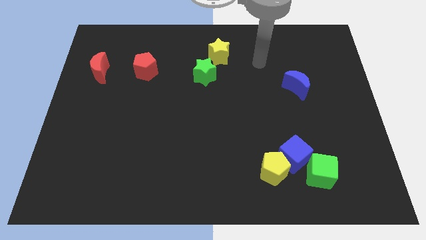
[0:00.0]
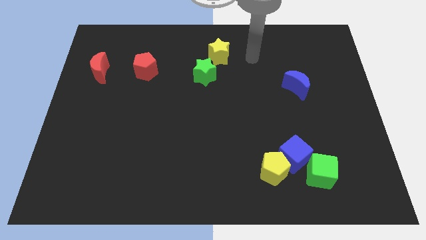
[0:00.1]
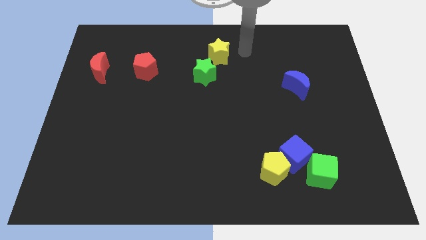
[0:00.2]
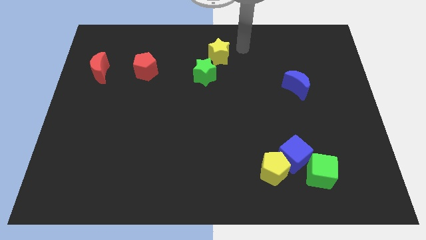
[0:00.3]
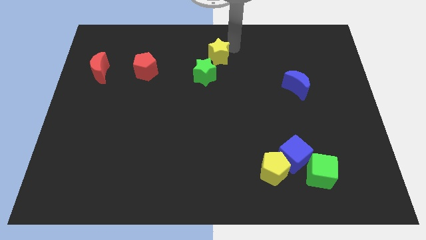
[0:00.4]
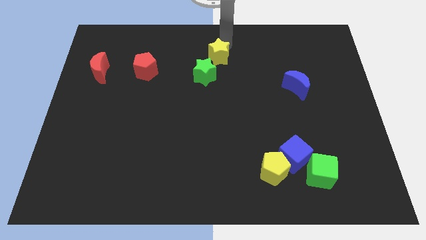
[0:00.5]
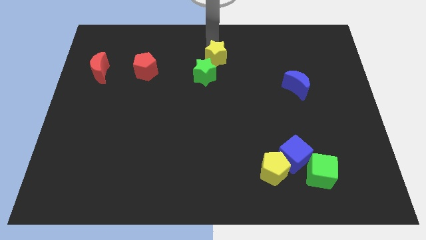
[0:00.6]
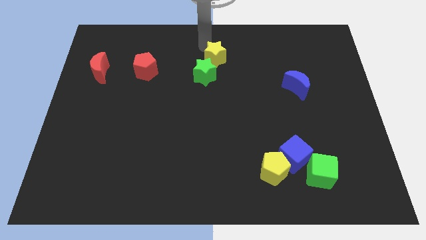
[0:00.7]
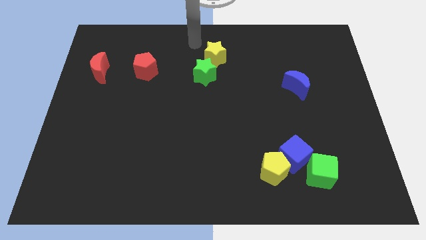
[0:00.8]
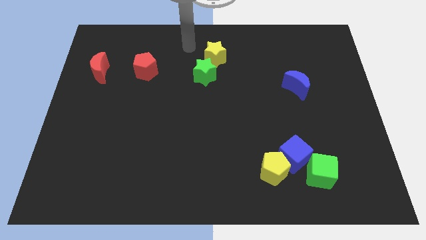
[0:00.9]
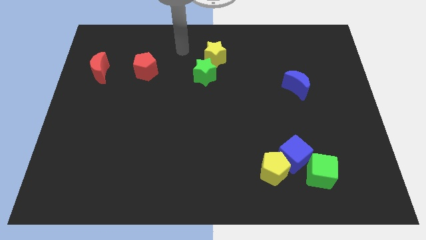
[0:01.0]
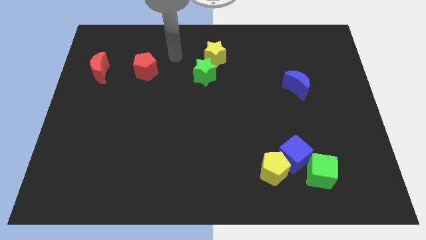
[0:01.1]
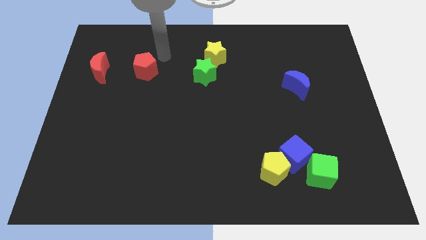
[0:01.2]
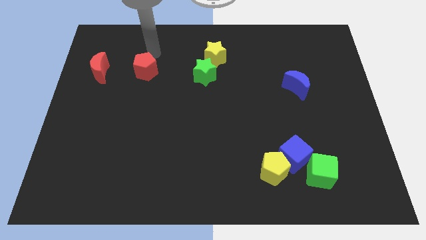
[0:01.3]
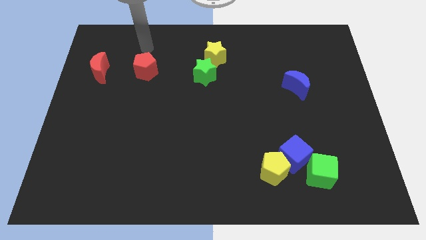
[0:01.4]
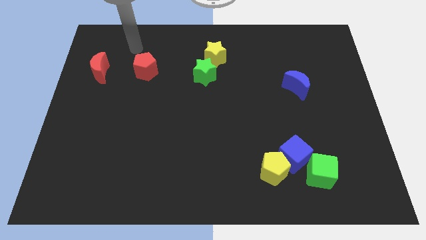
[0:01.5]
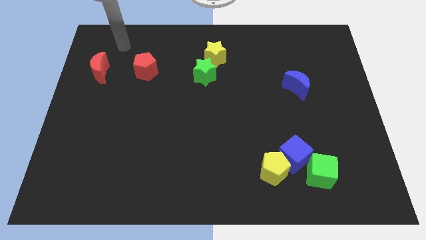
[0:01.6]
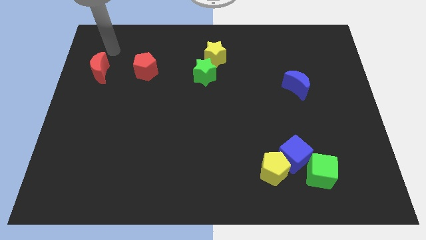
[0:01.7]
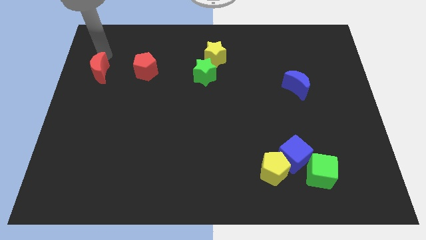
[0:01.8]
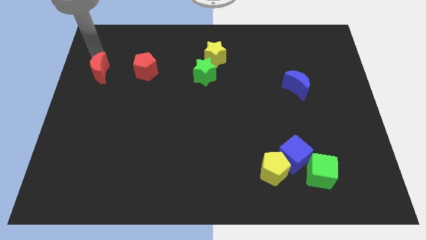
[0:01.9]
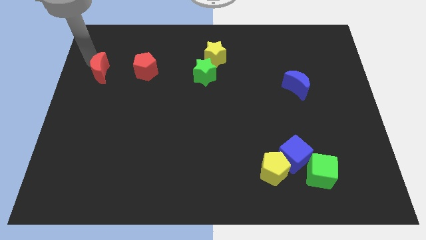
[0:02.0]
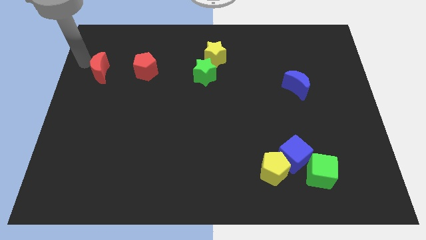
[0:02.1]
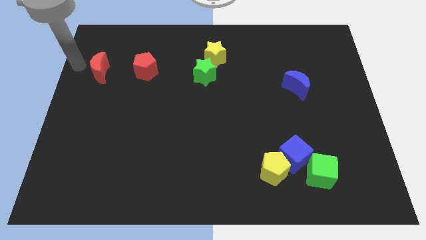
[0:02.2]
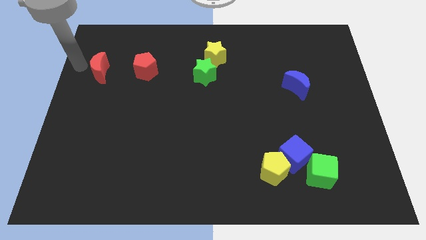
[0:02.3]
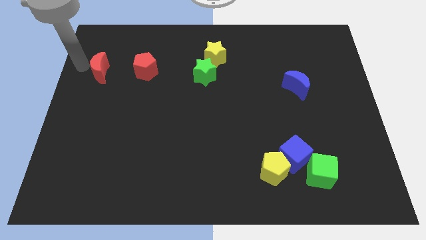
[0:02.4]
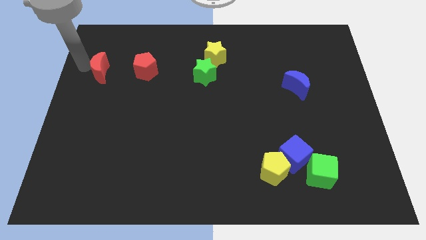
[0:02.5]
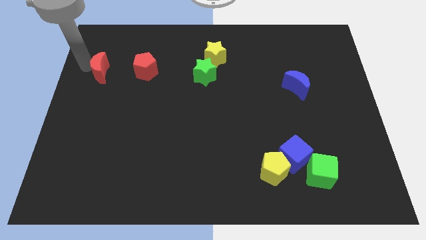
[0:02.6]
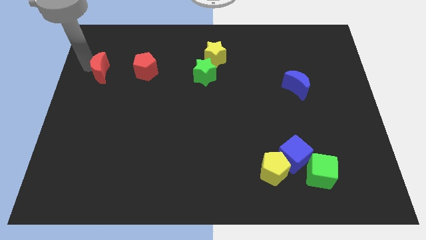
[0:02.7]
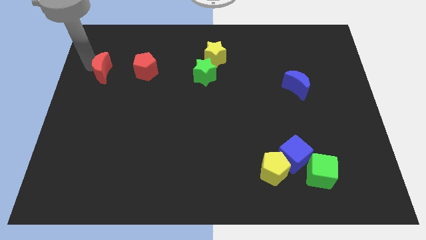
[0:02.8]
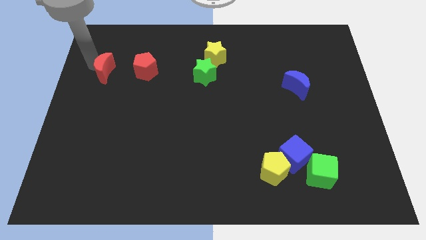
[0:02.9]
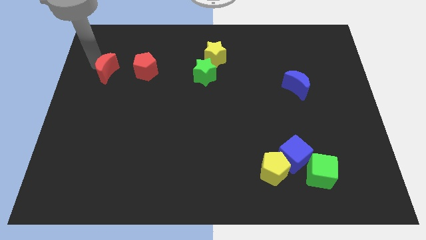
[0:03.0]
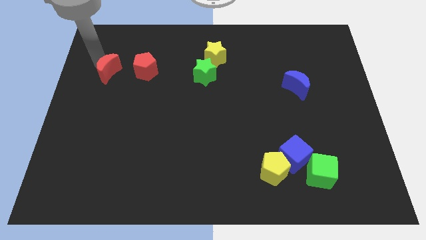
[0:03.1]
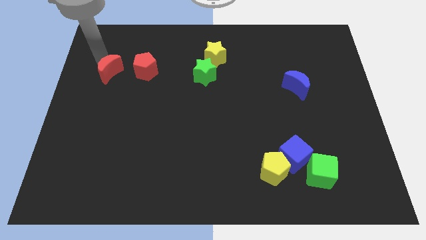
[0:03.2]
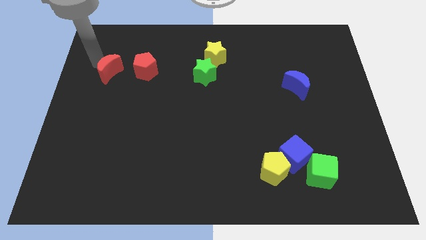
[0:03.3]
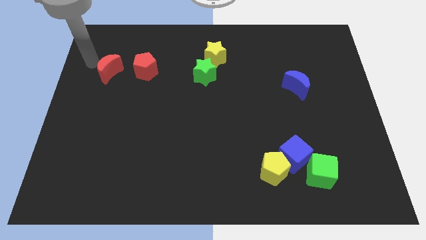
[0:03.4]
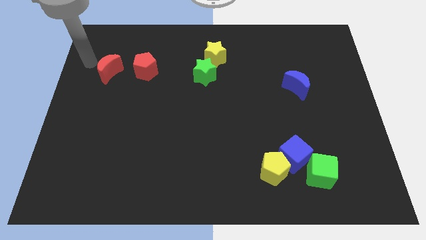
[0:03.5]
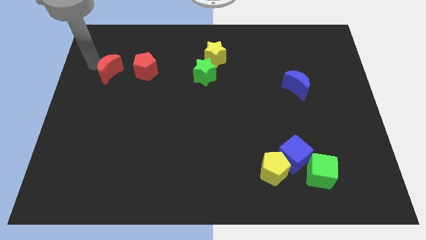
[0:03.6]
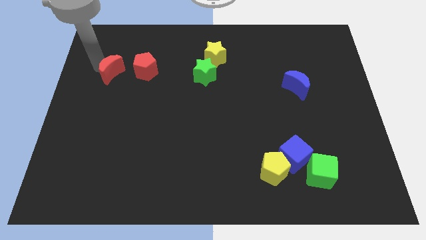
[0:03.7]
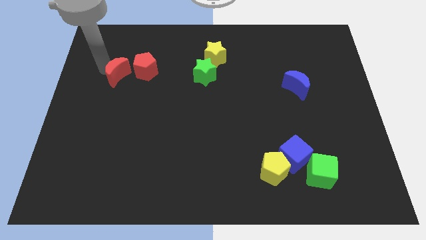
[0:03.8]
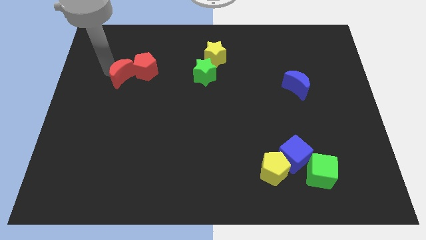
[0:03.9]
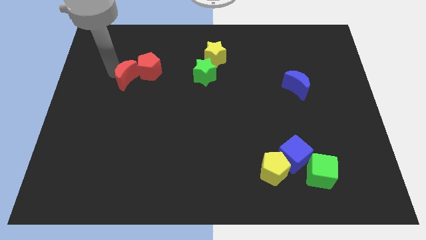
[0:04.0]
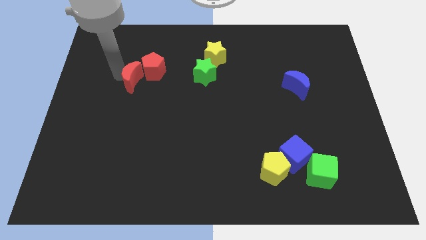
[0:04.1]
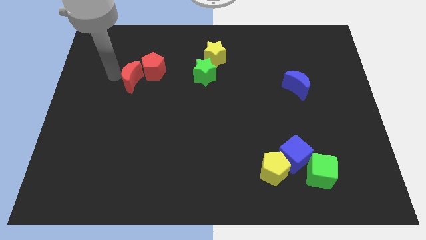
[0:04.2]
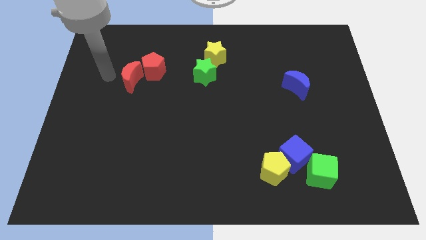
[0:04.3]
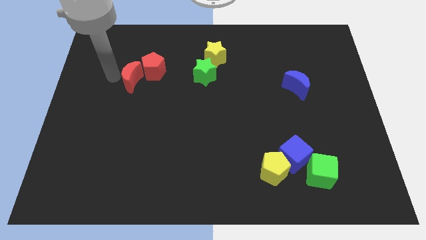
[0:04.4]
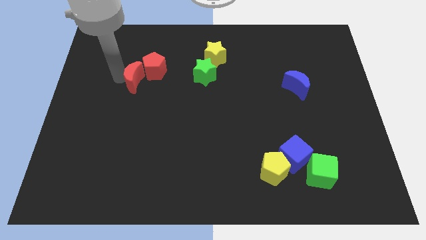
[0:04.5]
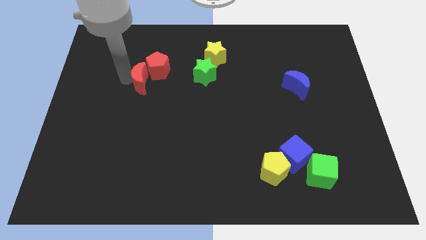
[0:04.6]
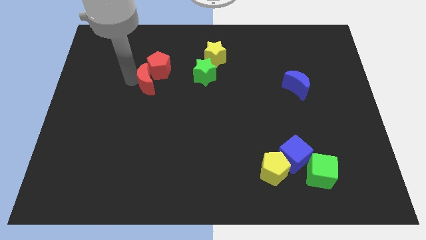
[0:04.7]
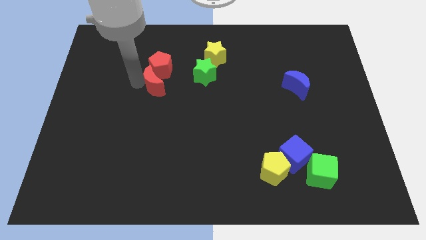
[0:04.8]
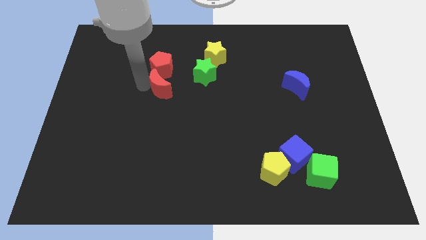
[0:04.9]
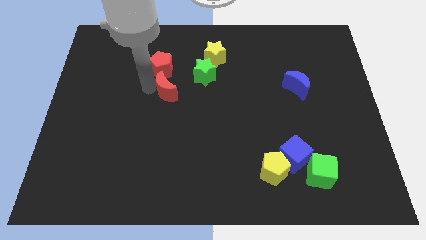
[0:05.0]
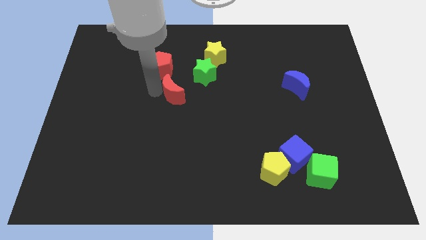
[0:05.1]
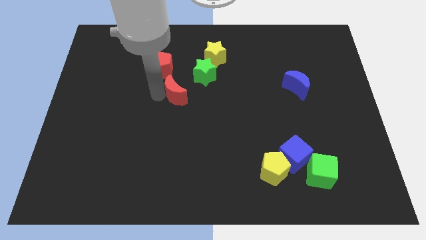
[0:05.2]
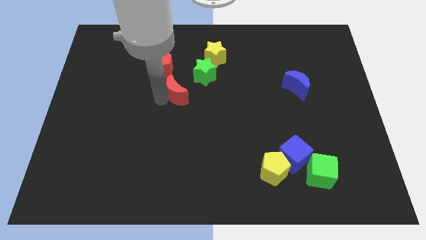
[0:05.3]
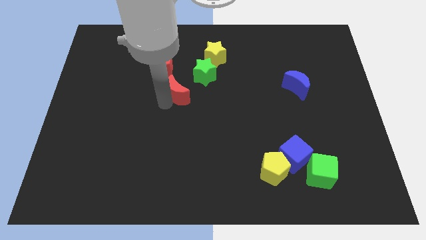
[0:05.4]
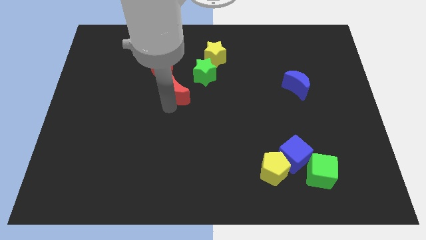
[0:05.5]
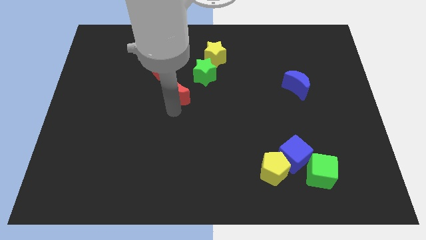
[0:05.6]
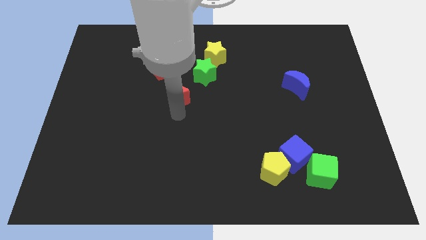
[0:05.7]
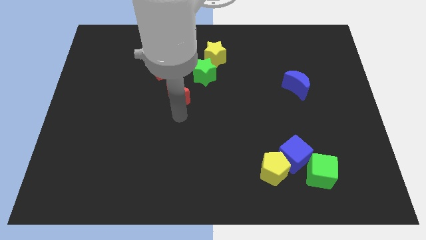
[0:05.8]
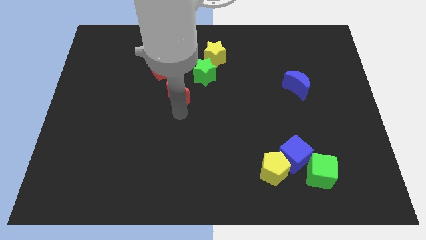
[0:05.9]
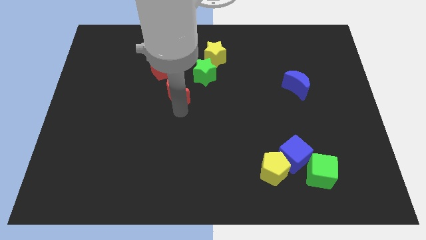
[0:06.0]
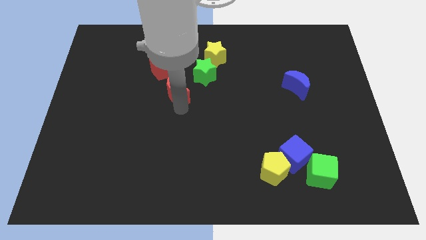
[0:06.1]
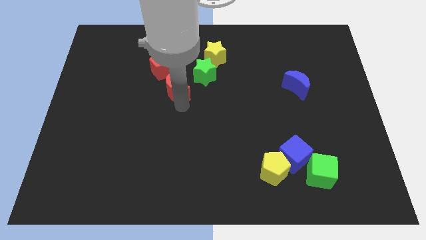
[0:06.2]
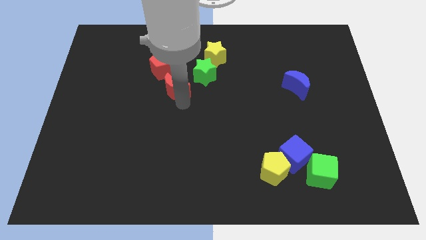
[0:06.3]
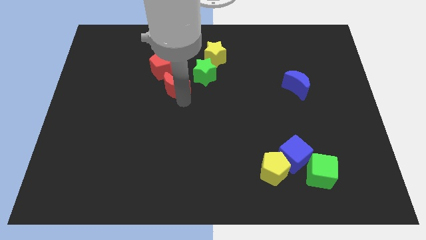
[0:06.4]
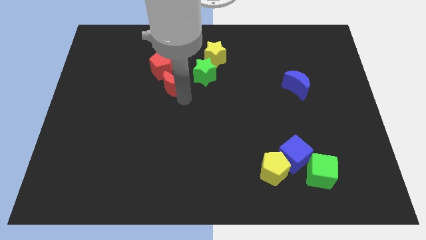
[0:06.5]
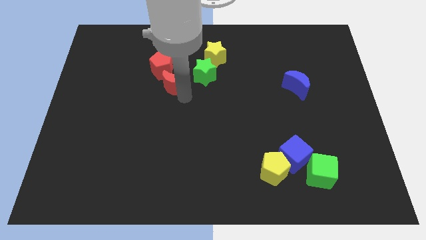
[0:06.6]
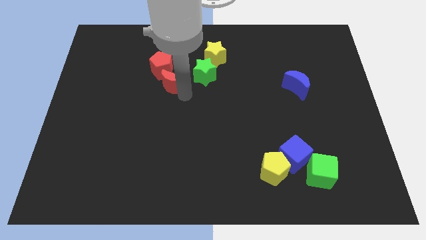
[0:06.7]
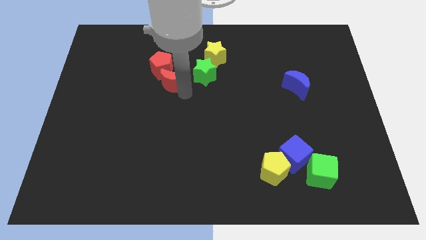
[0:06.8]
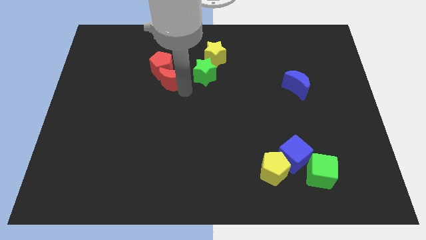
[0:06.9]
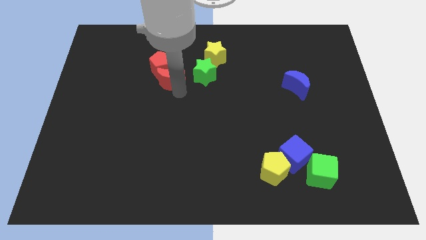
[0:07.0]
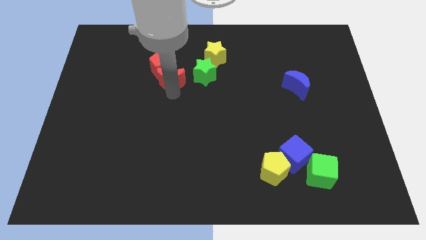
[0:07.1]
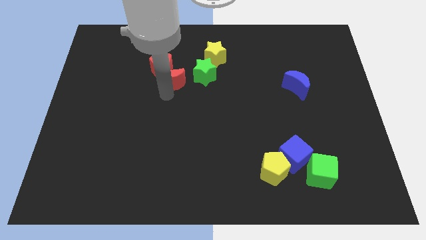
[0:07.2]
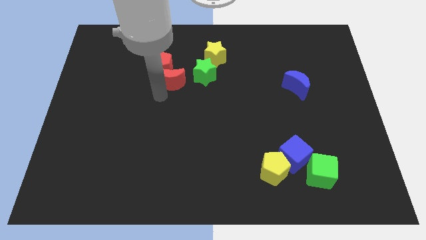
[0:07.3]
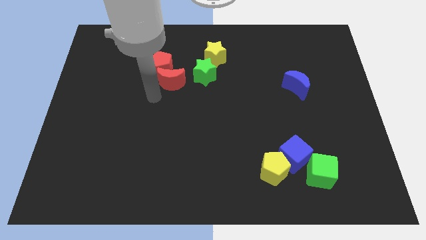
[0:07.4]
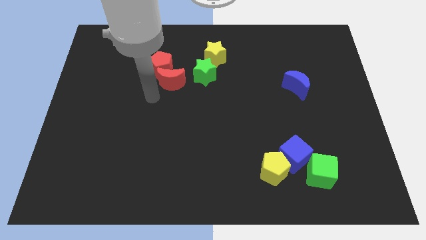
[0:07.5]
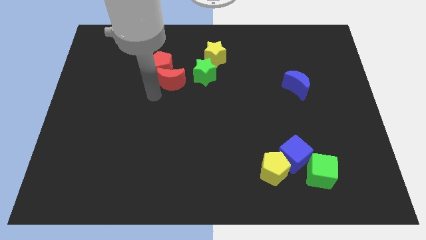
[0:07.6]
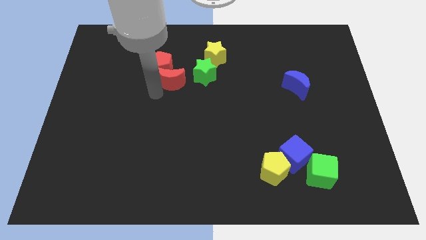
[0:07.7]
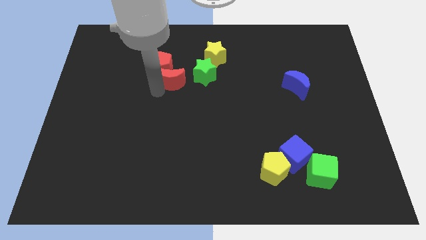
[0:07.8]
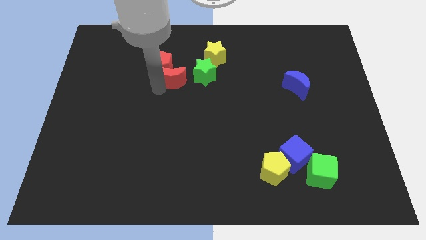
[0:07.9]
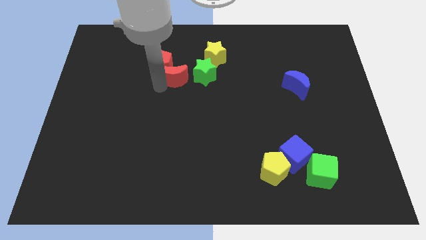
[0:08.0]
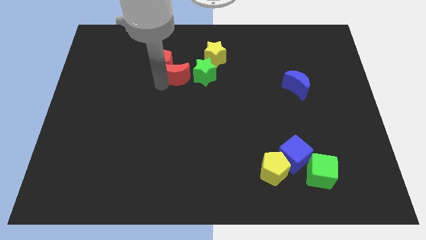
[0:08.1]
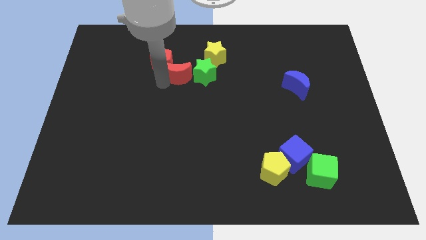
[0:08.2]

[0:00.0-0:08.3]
push the red moon to the right
